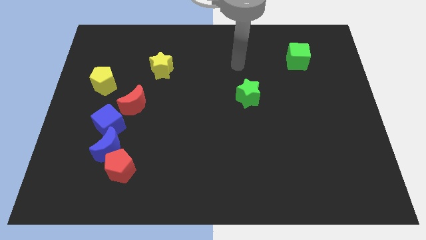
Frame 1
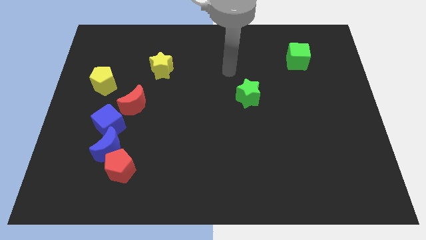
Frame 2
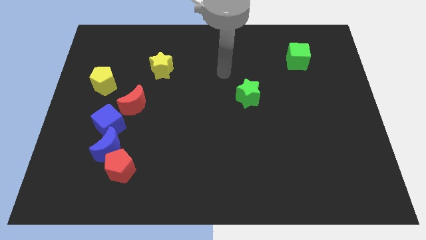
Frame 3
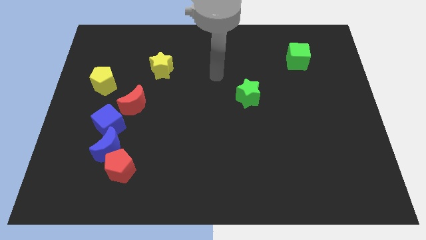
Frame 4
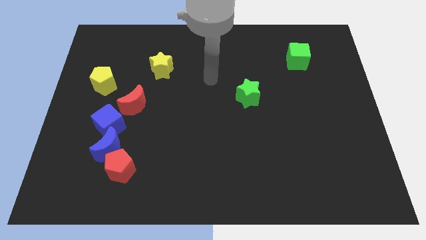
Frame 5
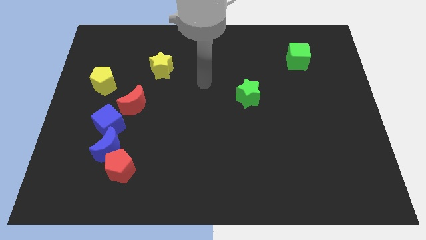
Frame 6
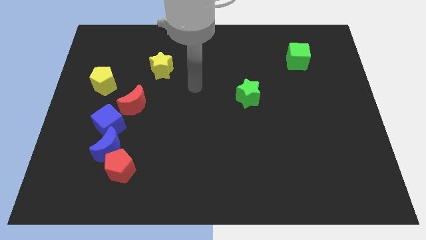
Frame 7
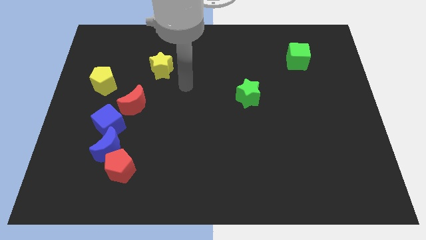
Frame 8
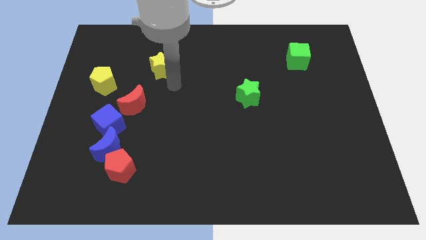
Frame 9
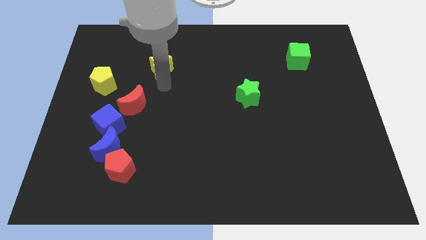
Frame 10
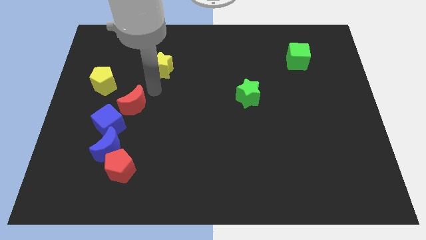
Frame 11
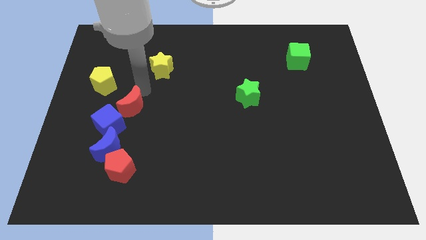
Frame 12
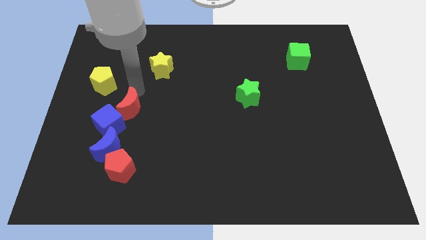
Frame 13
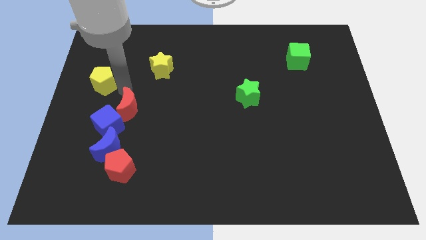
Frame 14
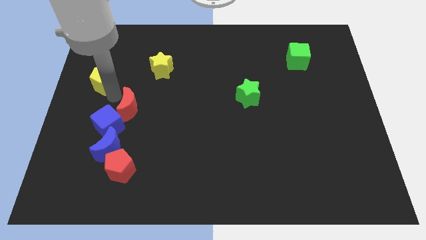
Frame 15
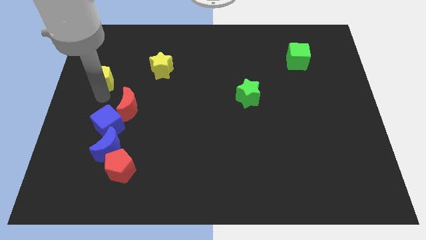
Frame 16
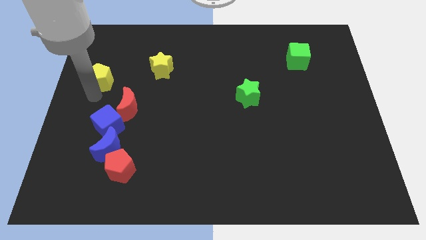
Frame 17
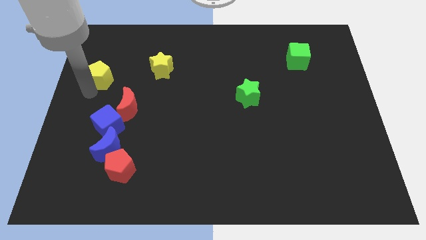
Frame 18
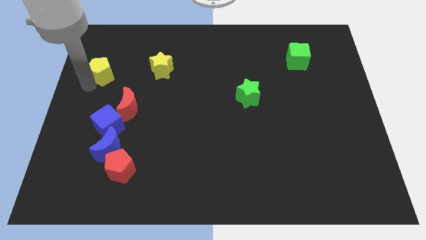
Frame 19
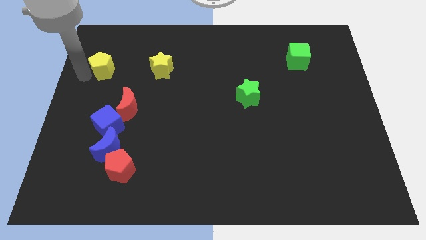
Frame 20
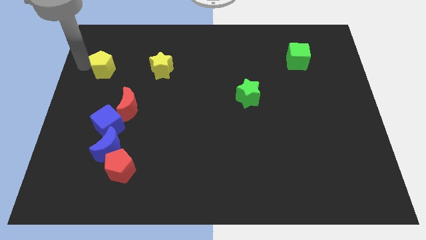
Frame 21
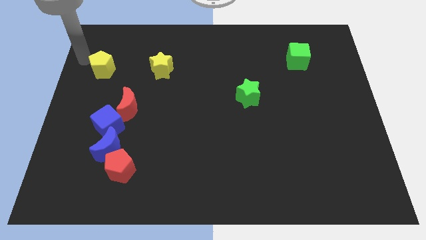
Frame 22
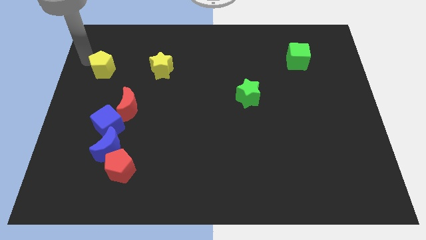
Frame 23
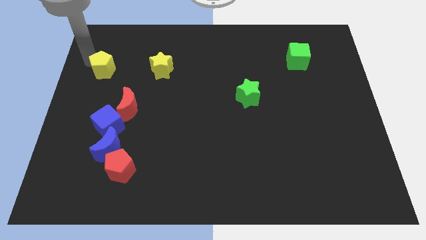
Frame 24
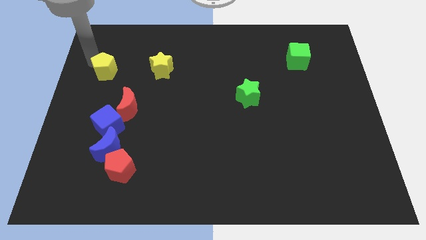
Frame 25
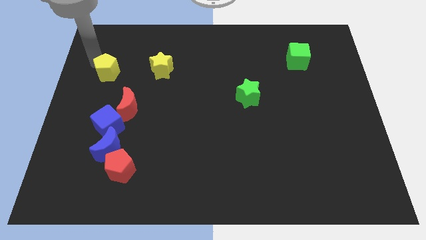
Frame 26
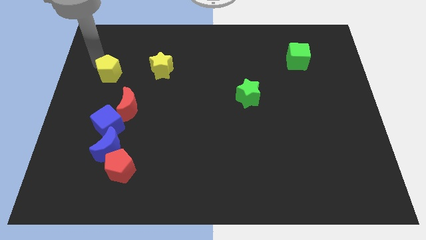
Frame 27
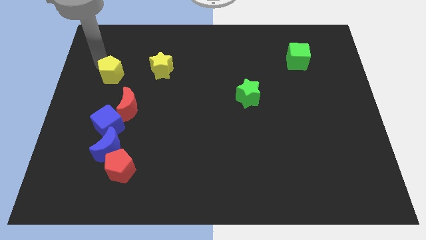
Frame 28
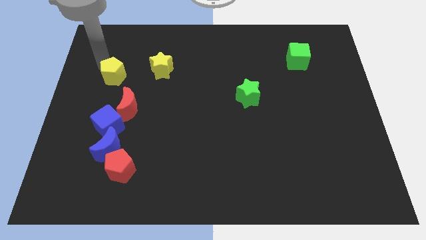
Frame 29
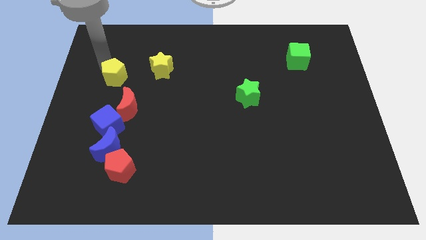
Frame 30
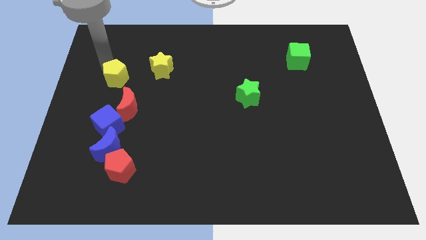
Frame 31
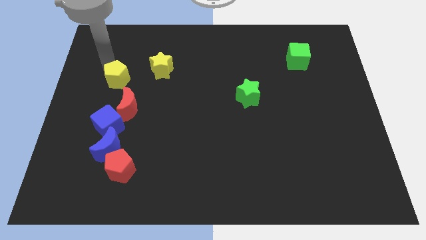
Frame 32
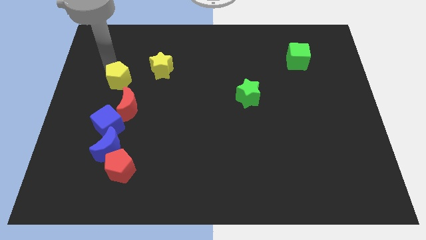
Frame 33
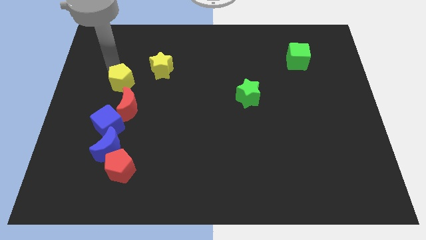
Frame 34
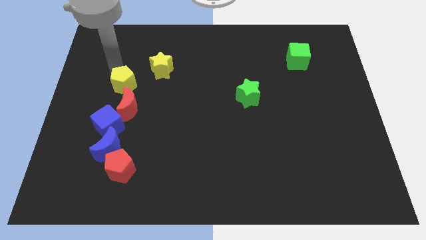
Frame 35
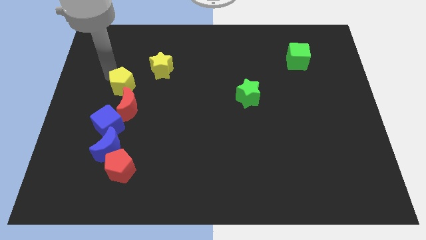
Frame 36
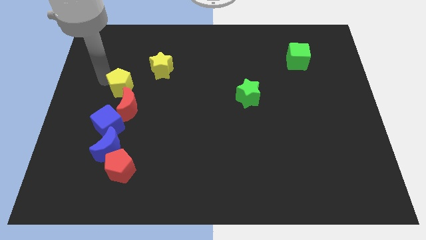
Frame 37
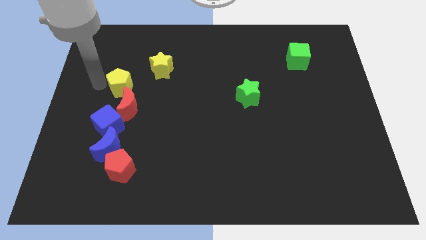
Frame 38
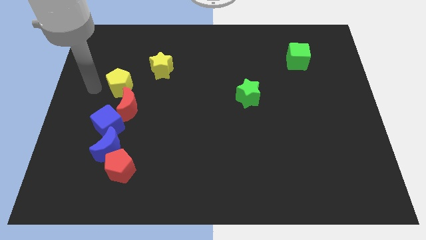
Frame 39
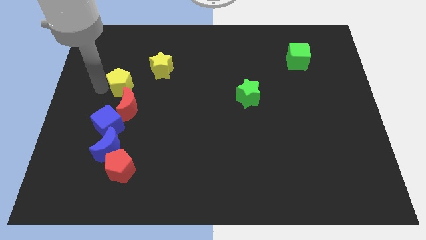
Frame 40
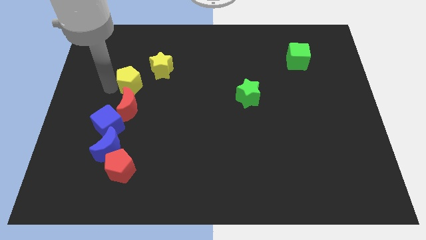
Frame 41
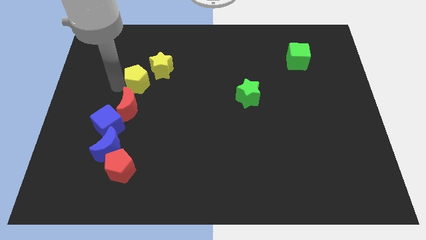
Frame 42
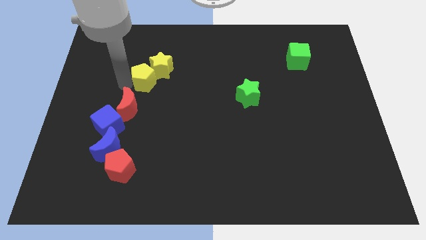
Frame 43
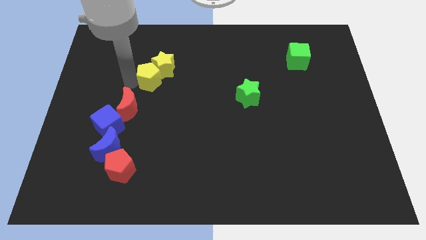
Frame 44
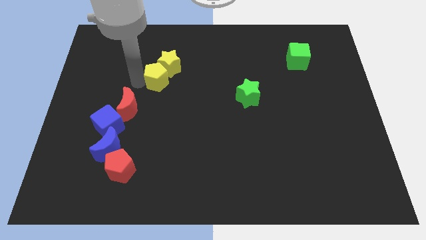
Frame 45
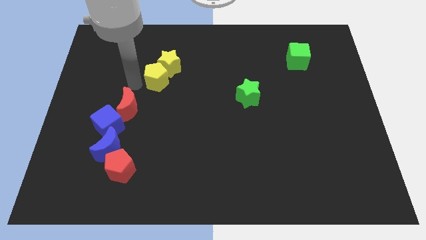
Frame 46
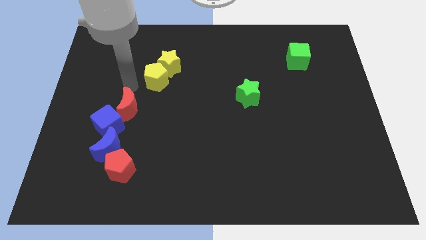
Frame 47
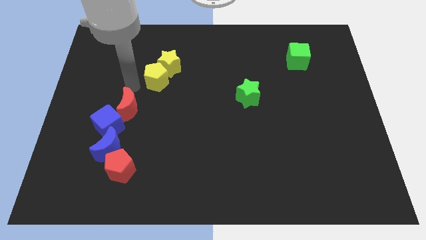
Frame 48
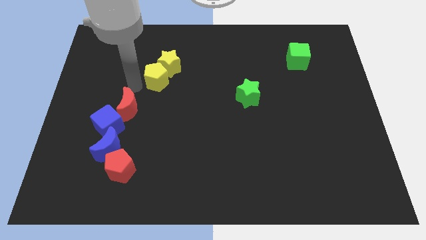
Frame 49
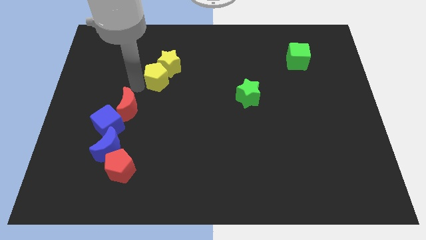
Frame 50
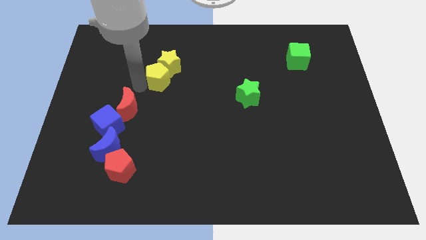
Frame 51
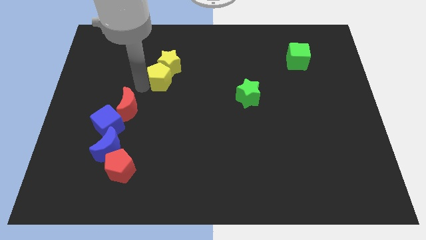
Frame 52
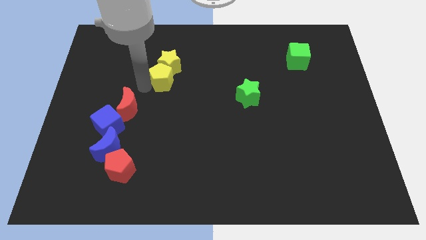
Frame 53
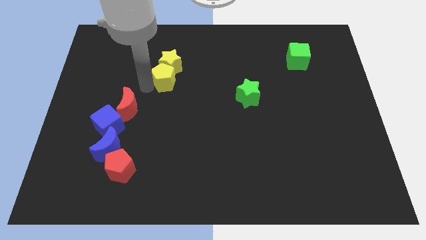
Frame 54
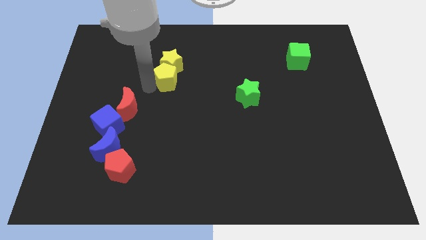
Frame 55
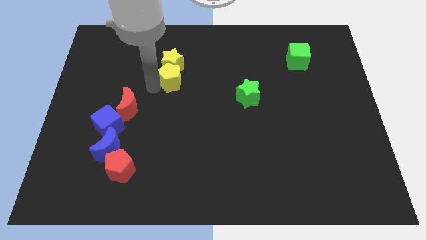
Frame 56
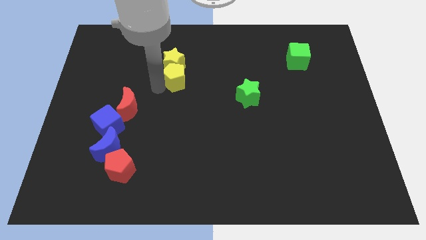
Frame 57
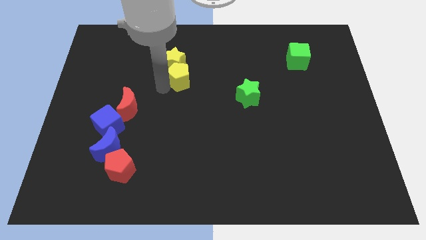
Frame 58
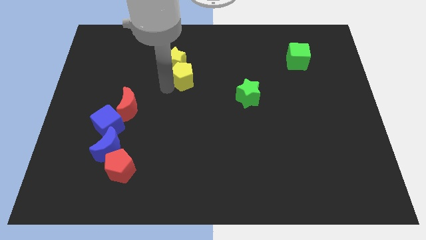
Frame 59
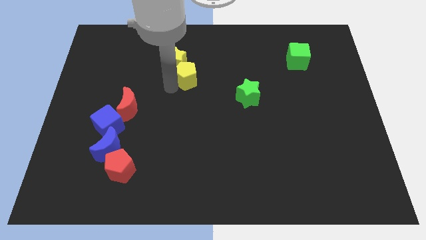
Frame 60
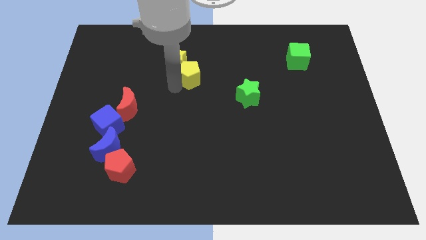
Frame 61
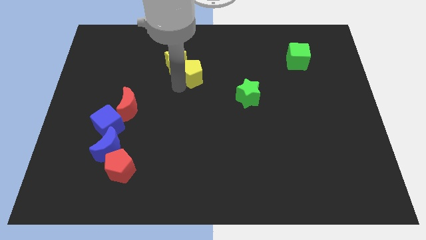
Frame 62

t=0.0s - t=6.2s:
slide the yellow pentagon to the right side of the yellow star

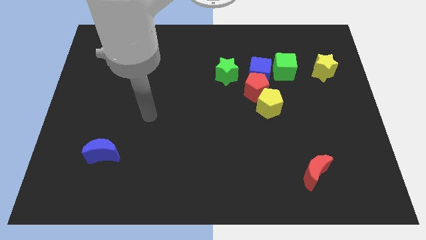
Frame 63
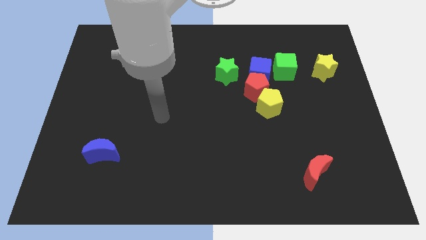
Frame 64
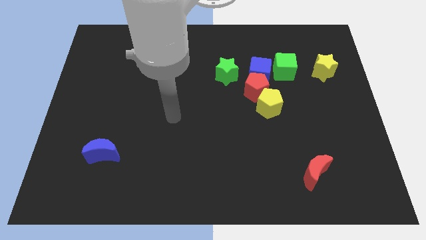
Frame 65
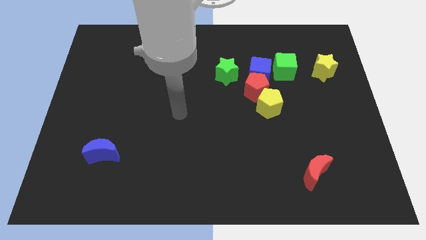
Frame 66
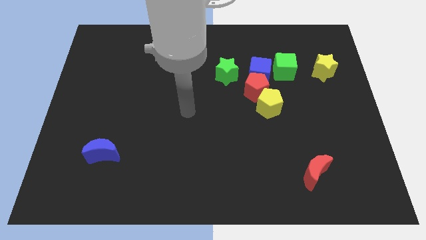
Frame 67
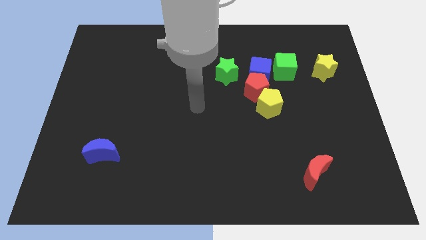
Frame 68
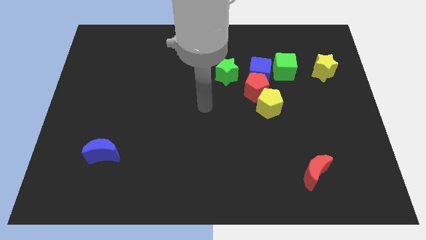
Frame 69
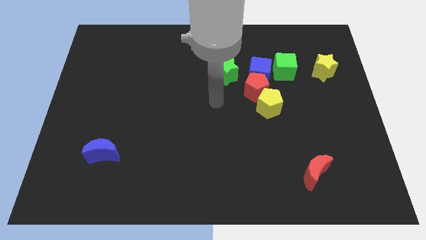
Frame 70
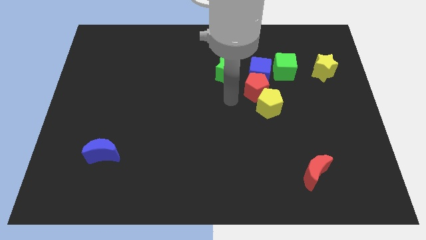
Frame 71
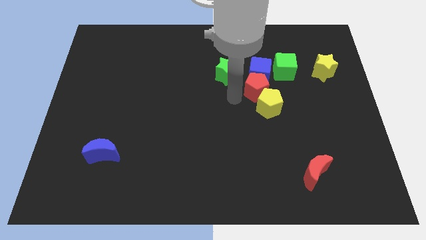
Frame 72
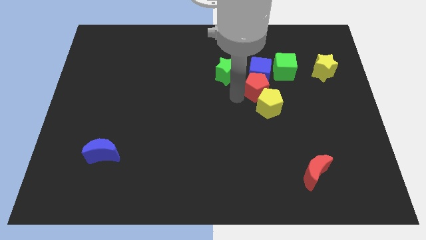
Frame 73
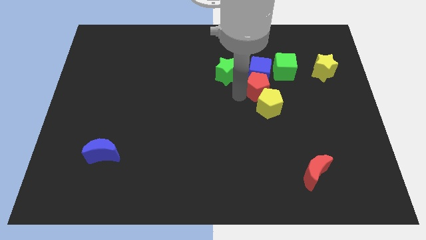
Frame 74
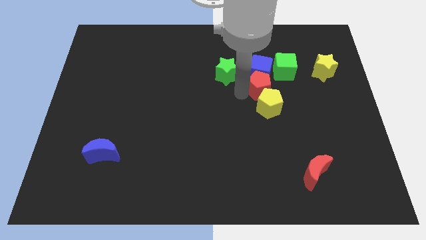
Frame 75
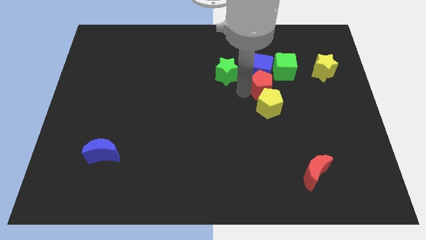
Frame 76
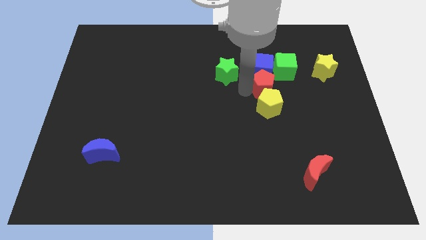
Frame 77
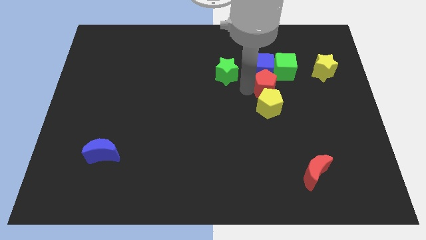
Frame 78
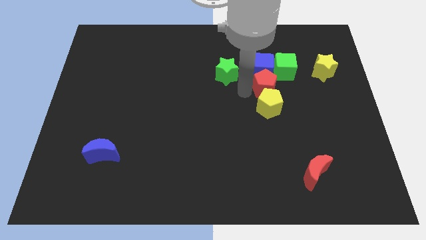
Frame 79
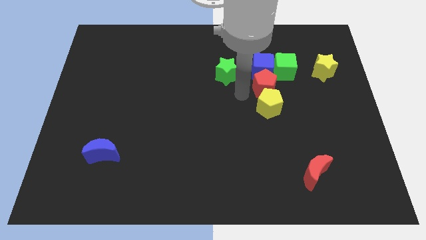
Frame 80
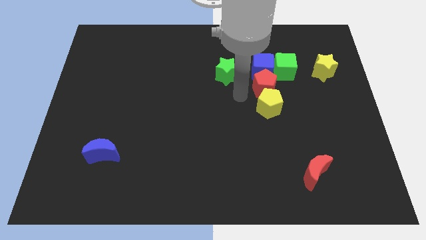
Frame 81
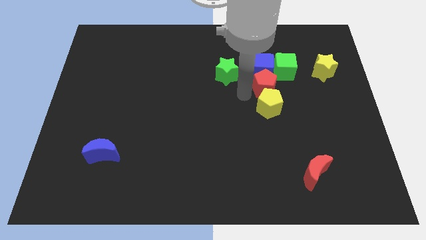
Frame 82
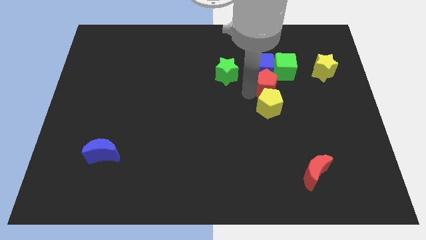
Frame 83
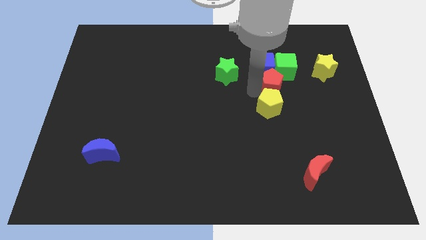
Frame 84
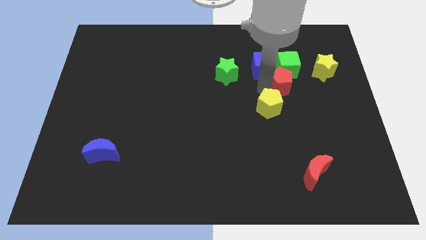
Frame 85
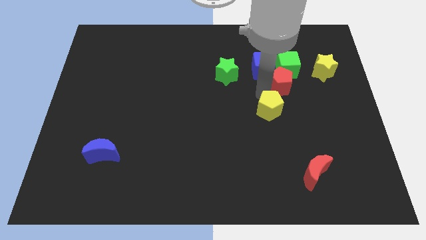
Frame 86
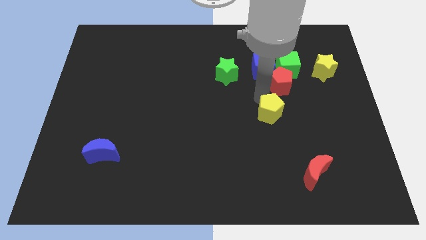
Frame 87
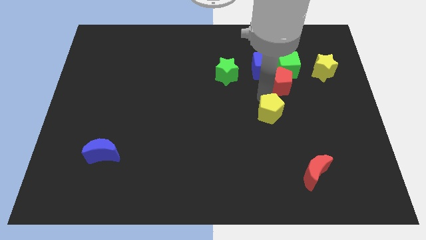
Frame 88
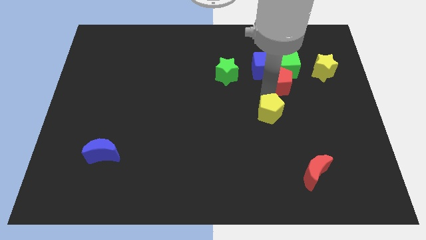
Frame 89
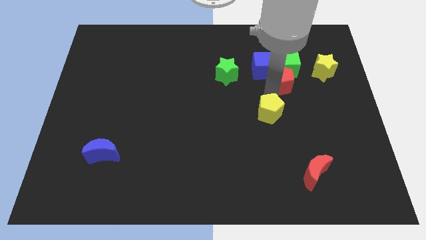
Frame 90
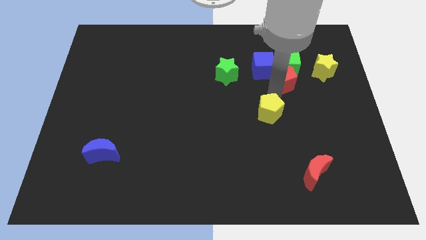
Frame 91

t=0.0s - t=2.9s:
slide the red pentagon just right of the blue cube
